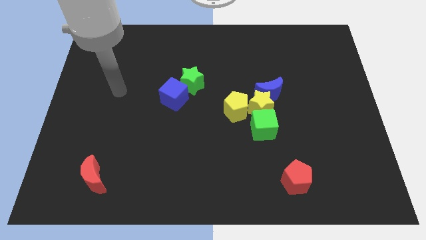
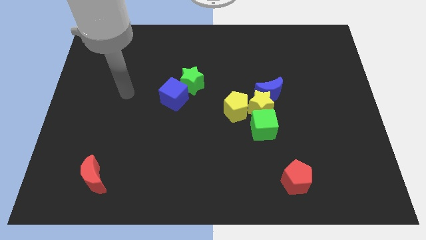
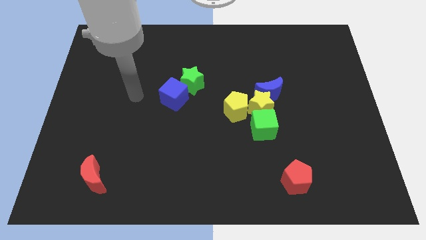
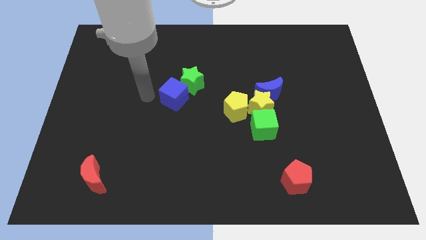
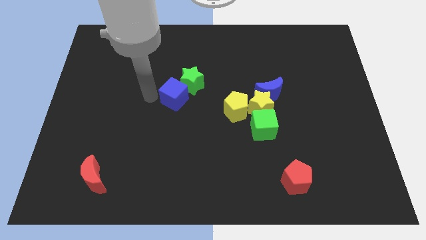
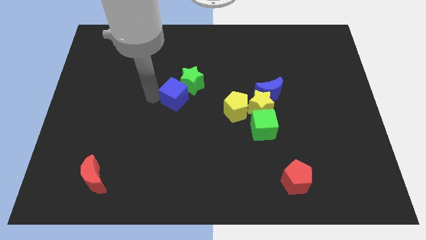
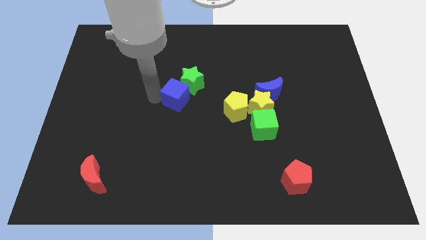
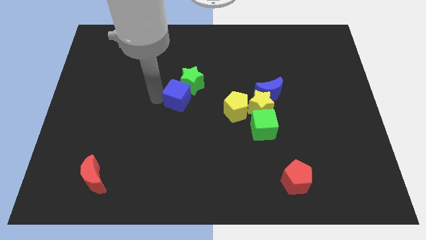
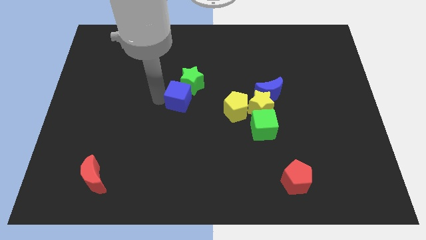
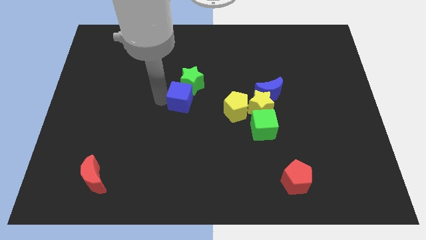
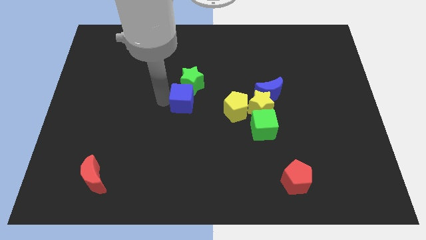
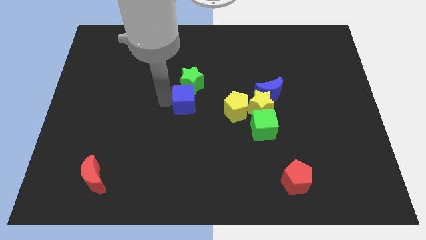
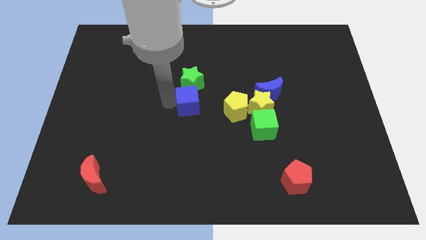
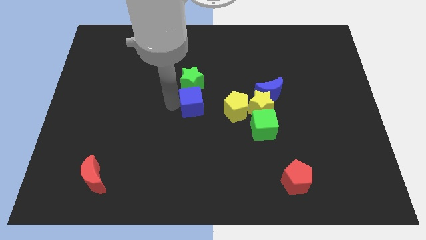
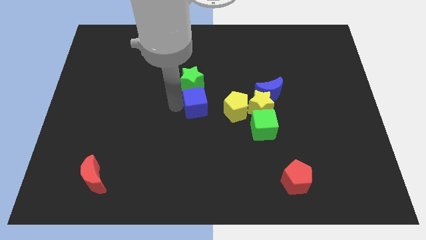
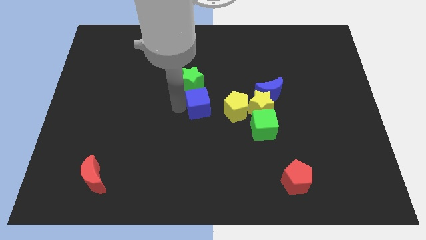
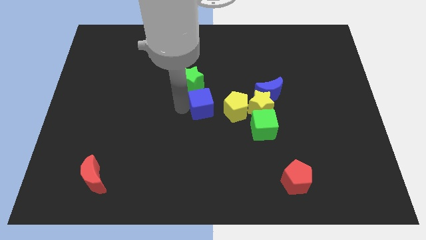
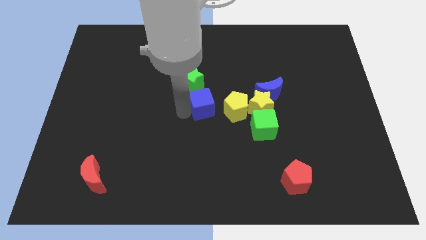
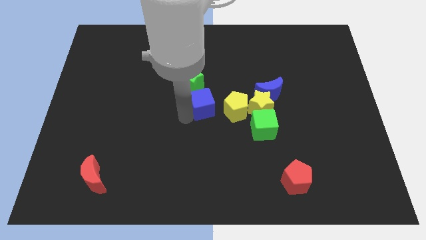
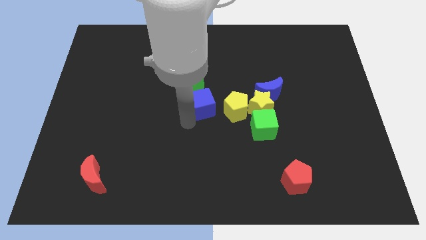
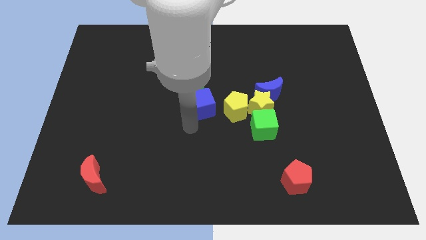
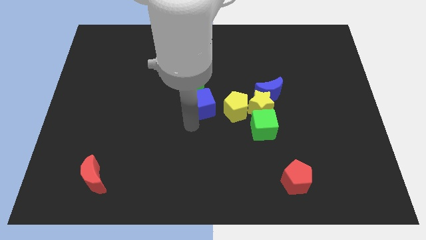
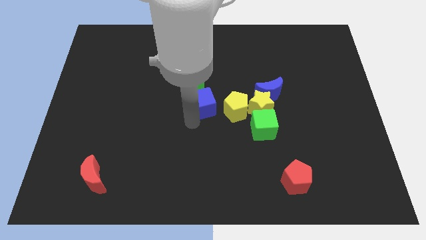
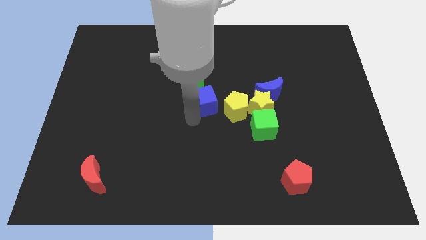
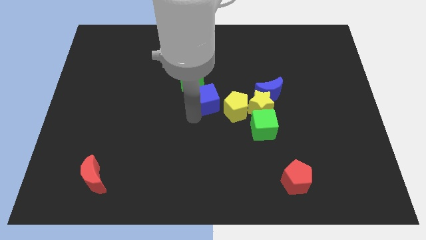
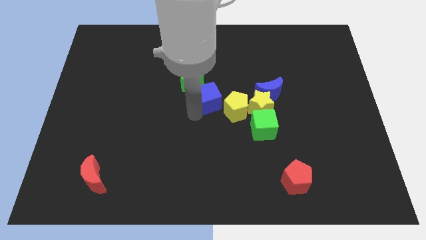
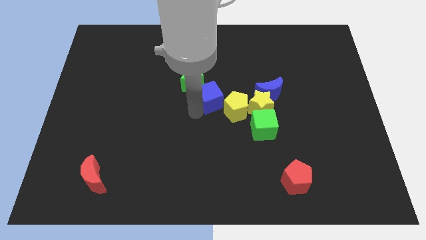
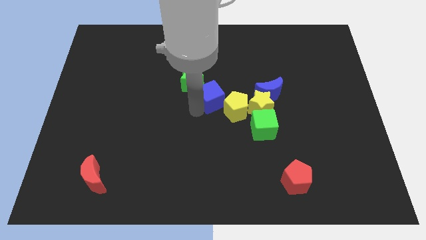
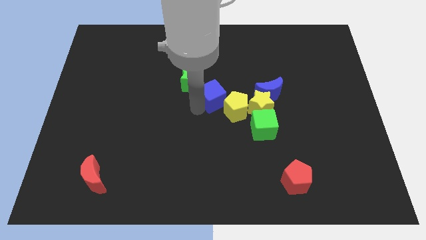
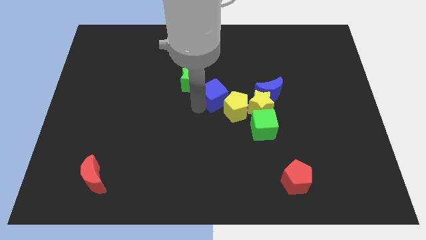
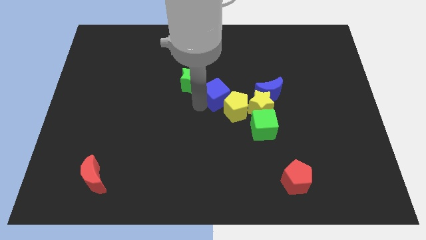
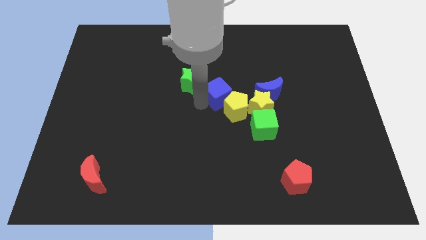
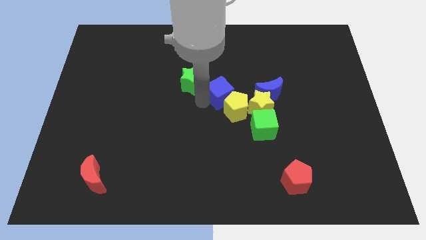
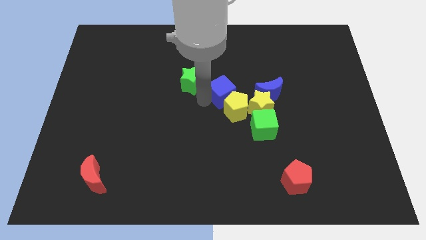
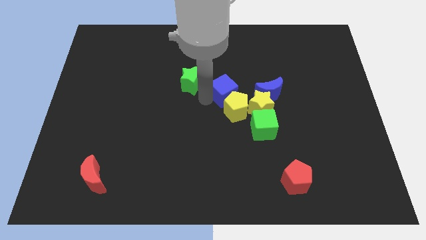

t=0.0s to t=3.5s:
slightly move the blue cube upwards and then right

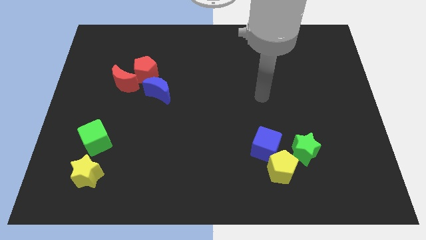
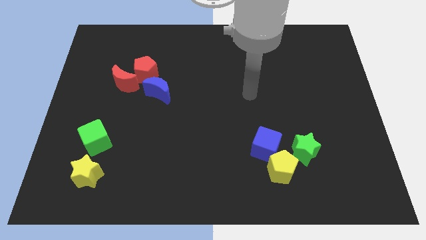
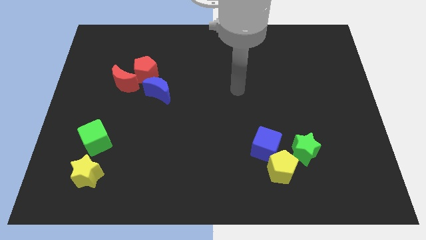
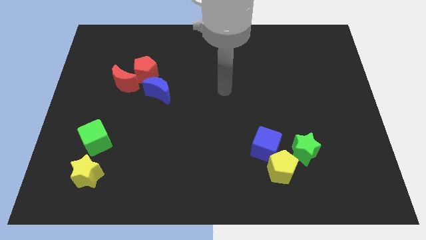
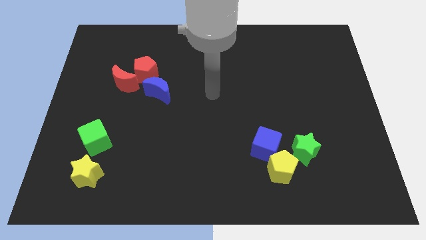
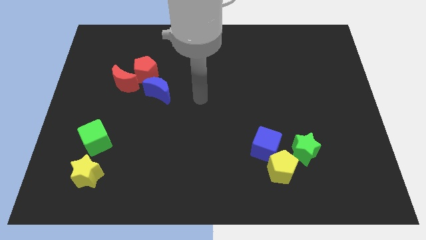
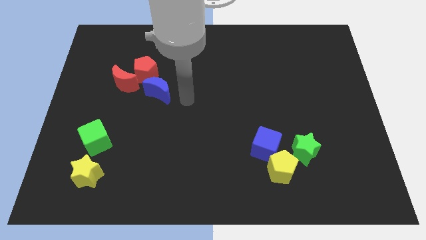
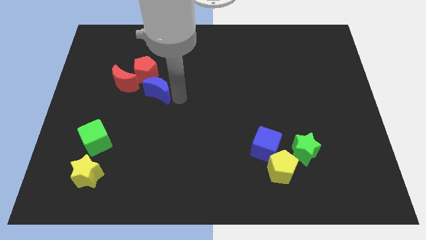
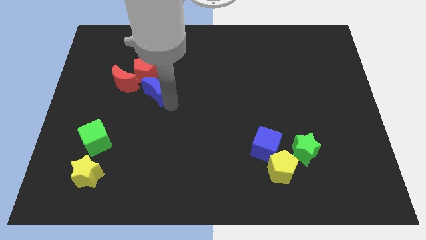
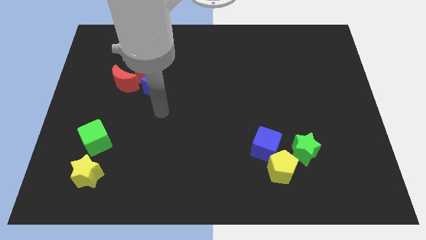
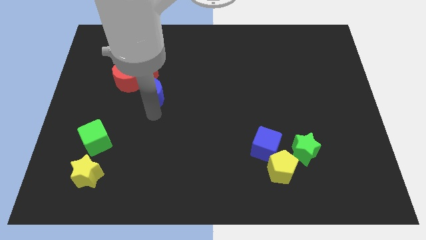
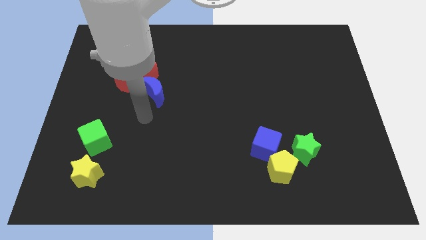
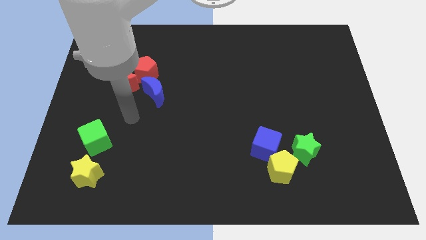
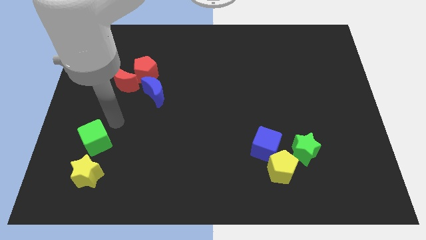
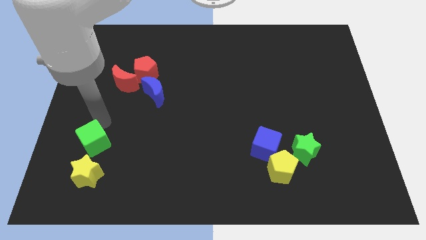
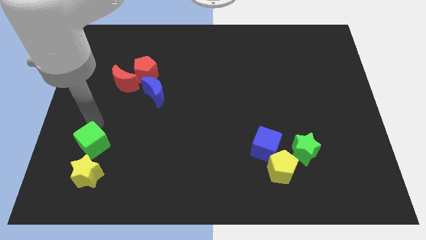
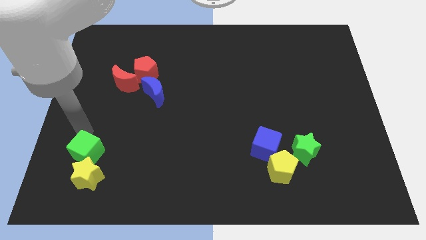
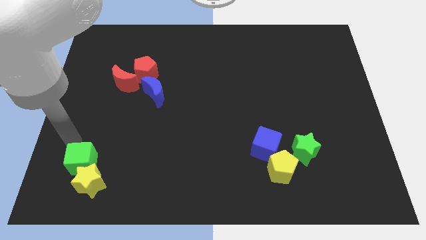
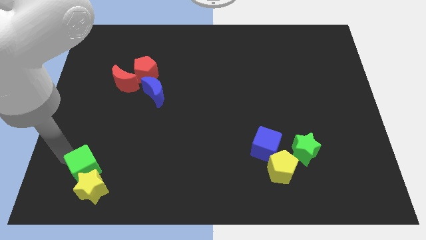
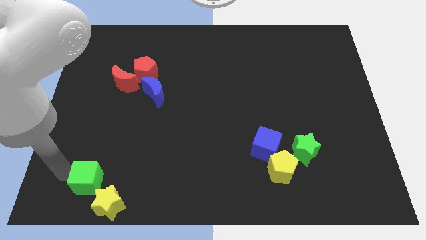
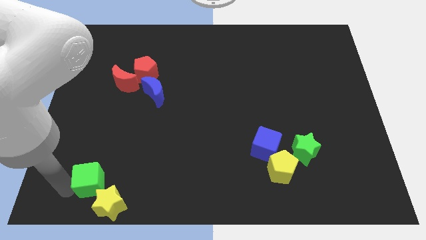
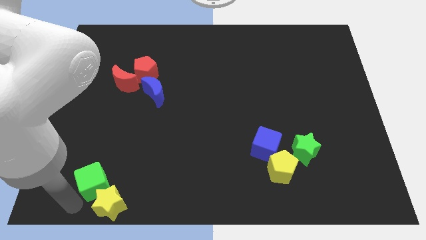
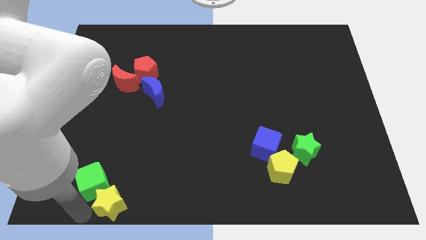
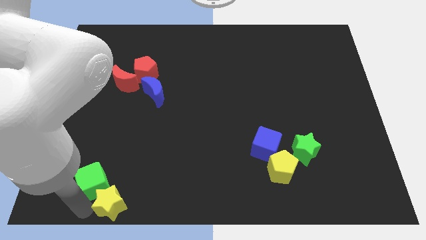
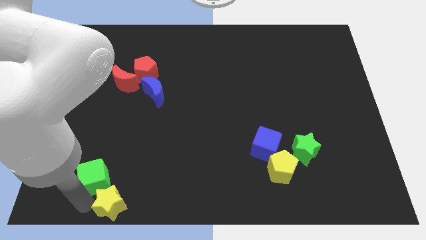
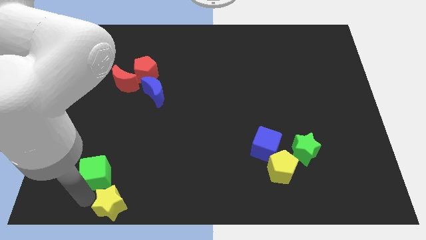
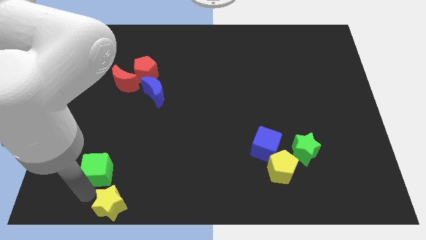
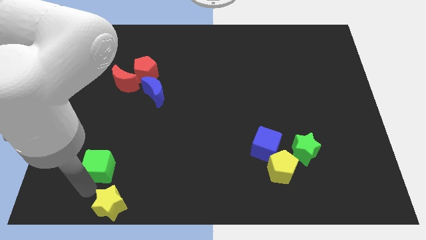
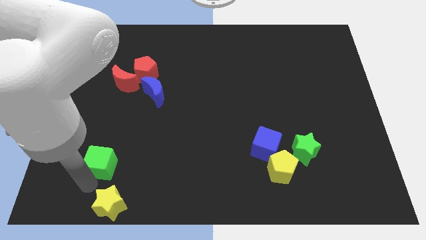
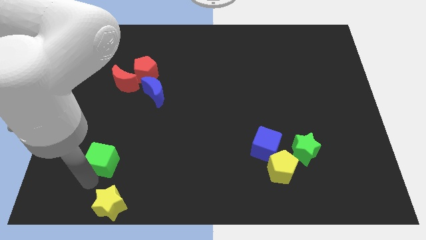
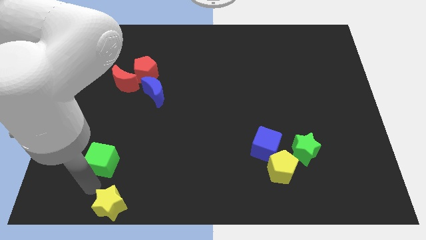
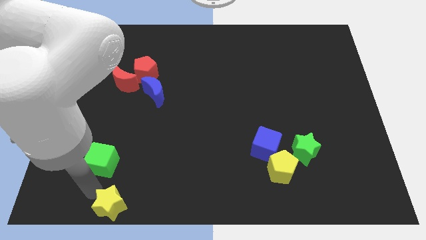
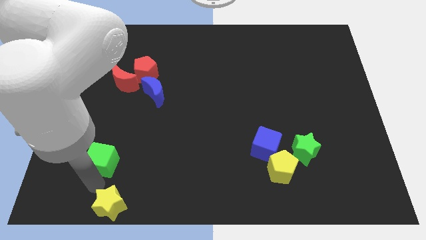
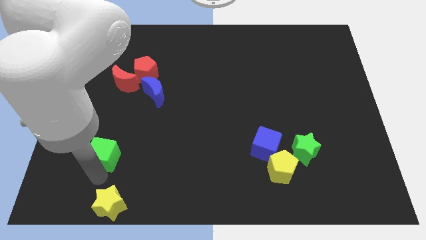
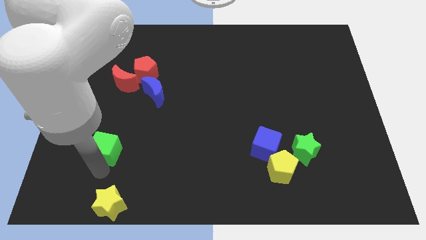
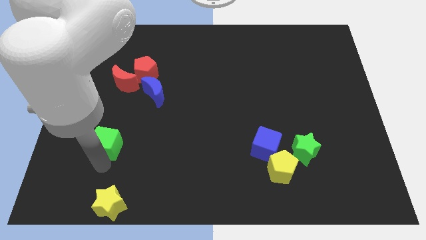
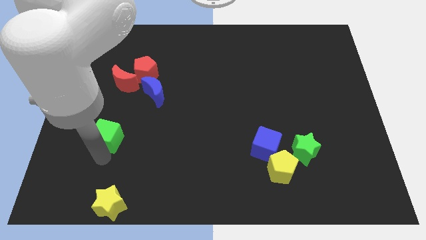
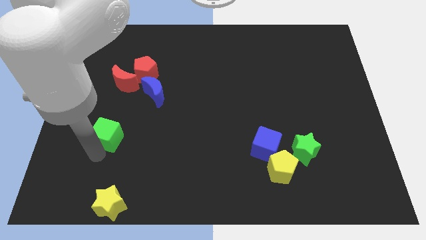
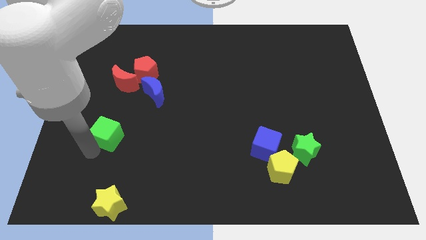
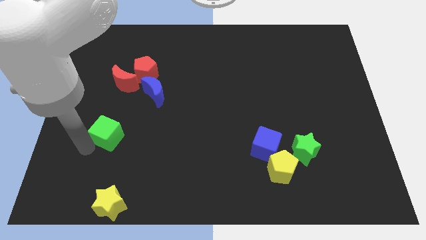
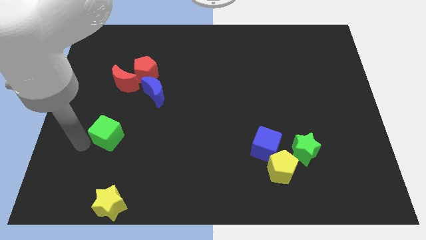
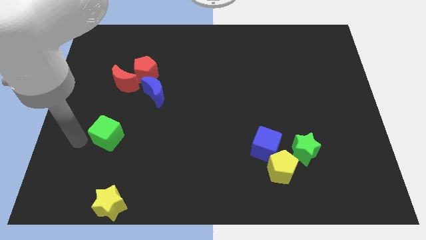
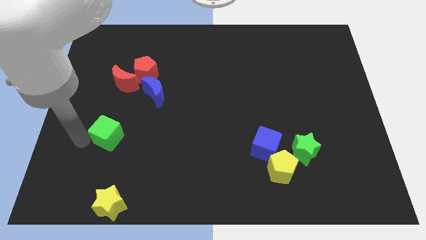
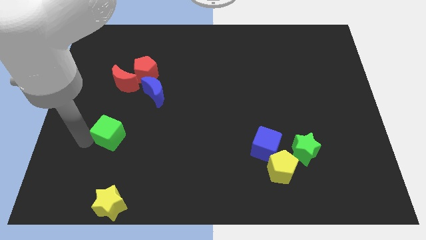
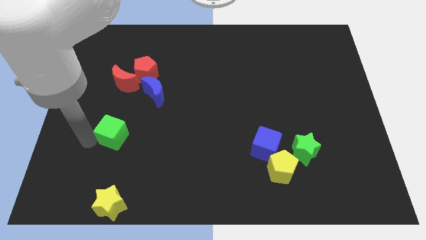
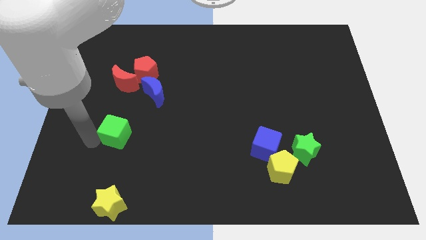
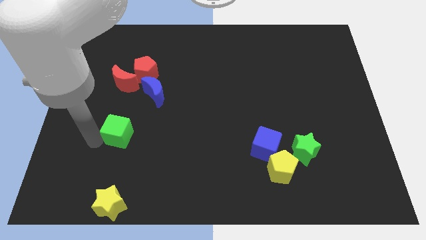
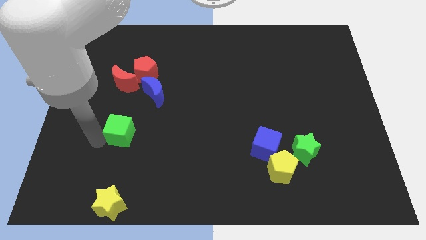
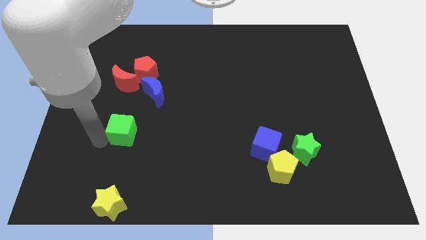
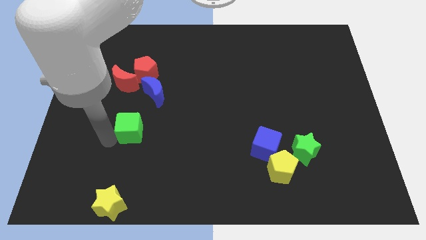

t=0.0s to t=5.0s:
move the green cube somewhat to the right
